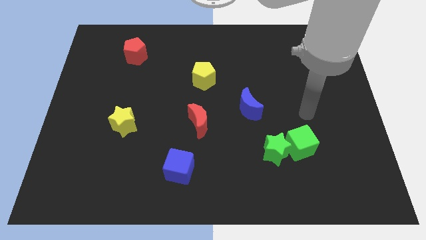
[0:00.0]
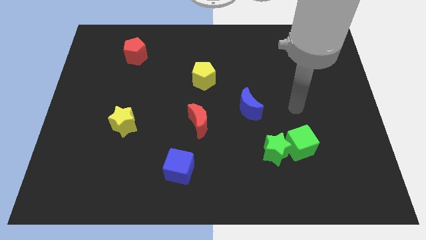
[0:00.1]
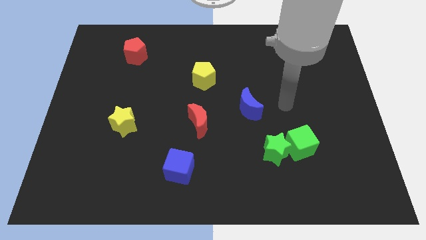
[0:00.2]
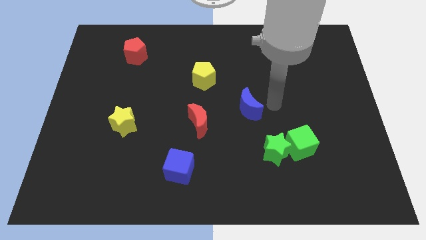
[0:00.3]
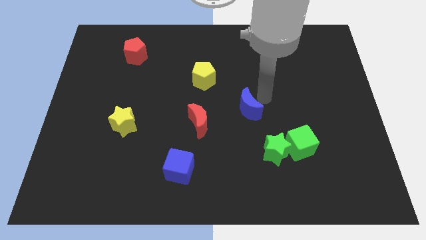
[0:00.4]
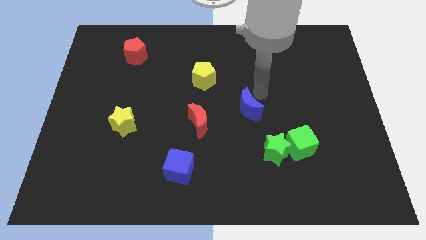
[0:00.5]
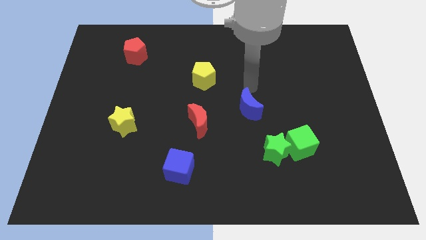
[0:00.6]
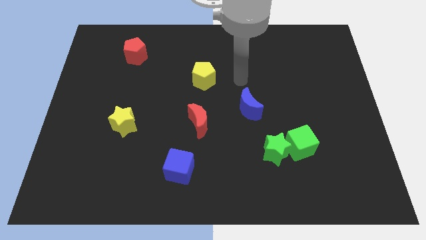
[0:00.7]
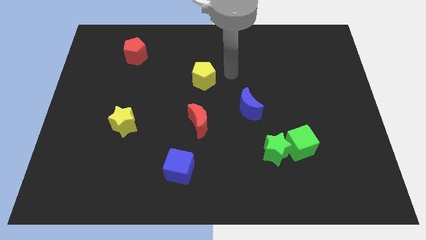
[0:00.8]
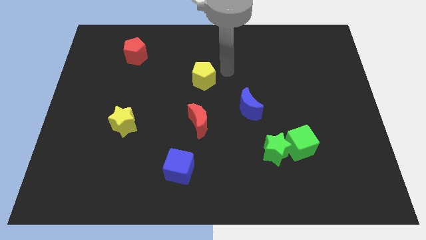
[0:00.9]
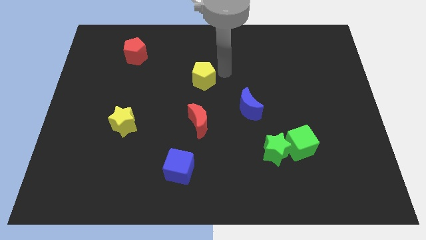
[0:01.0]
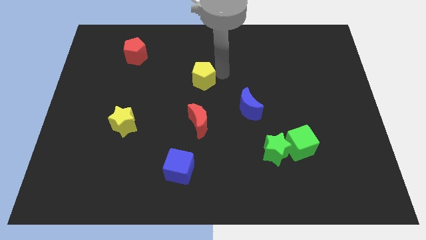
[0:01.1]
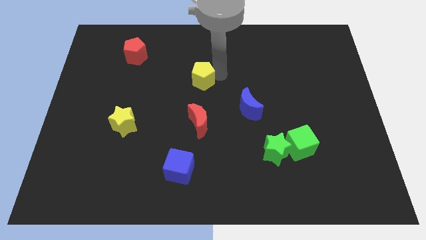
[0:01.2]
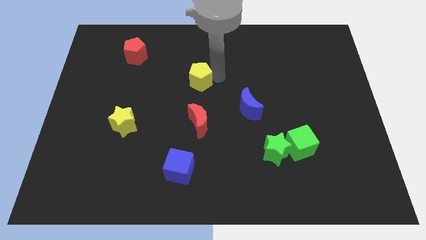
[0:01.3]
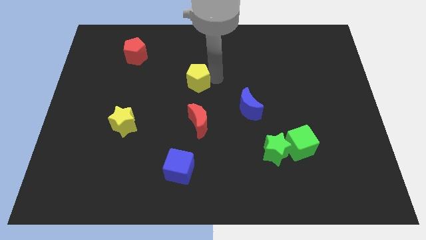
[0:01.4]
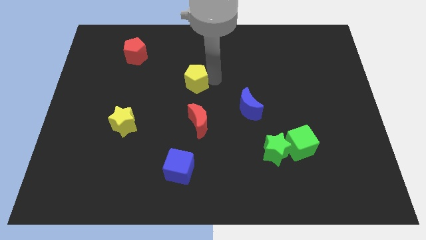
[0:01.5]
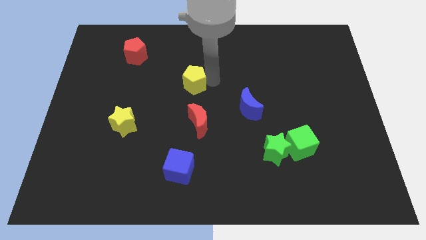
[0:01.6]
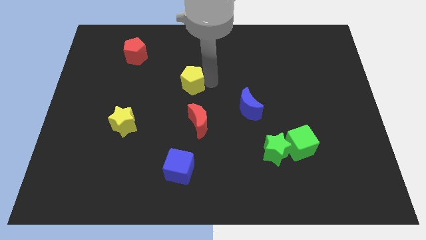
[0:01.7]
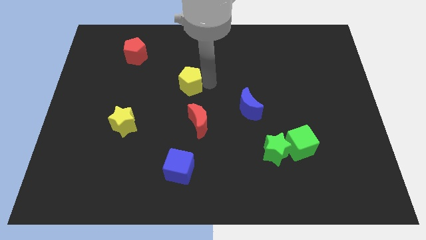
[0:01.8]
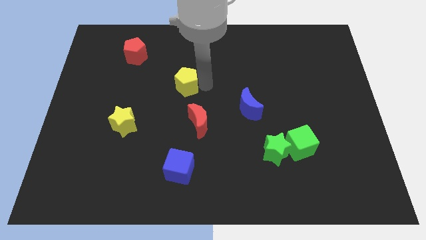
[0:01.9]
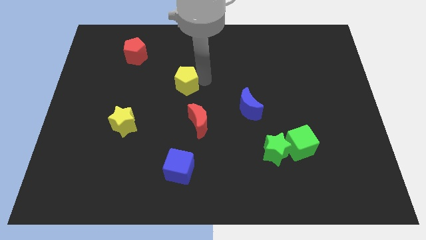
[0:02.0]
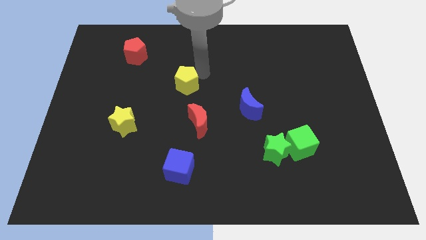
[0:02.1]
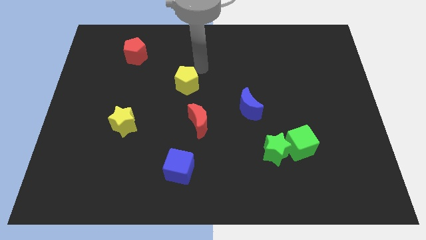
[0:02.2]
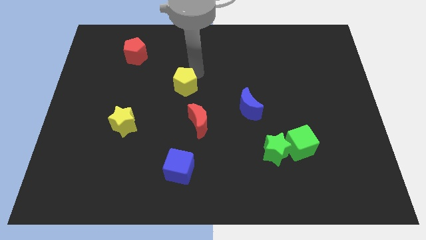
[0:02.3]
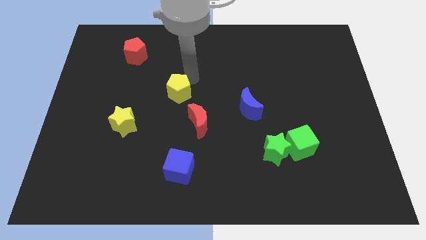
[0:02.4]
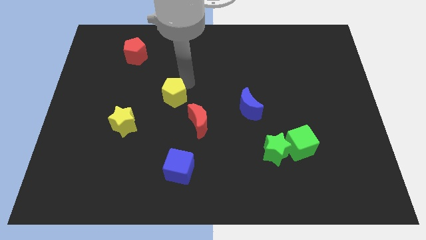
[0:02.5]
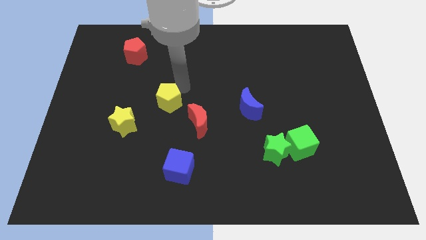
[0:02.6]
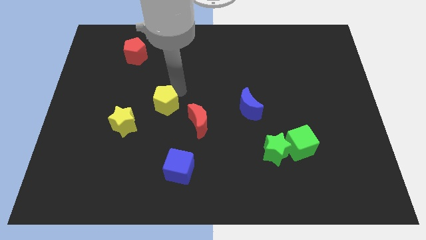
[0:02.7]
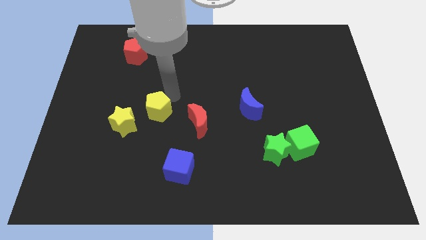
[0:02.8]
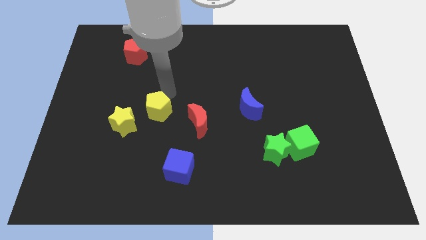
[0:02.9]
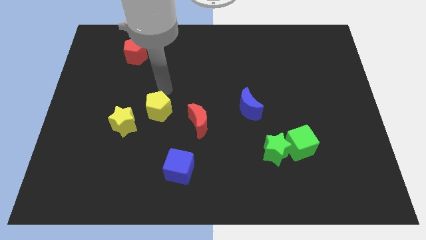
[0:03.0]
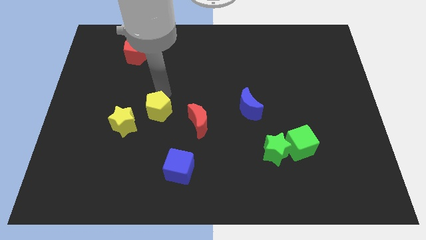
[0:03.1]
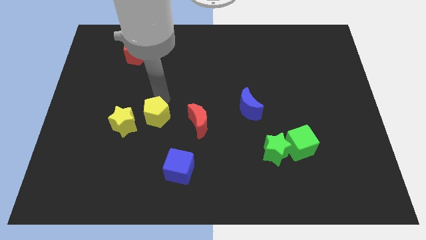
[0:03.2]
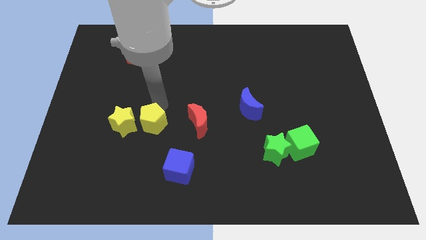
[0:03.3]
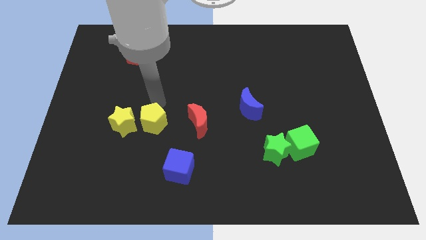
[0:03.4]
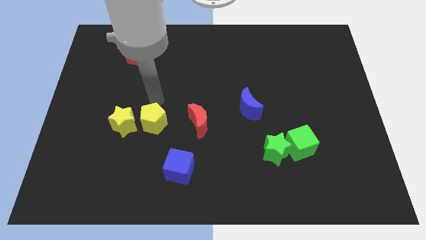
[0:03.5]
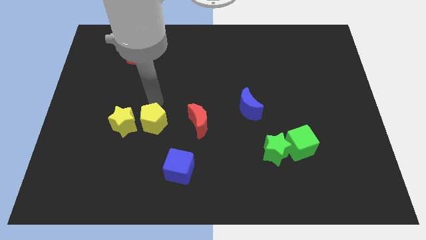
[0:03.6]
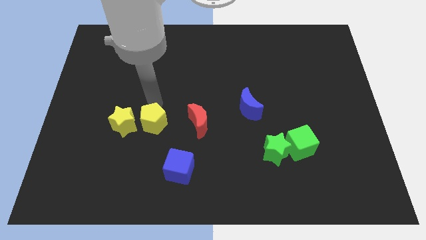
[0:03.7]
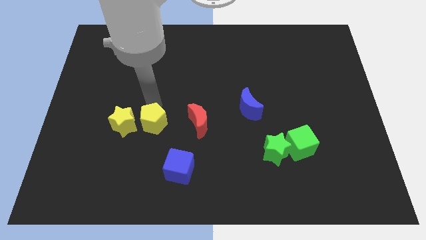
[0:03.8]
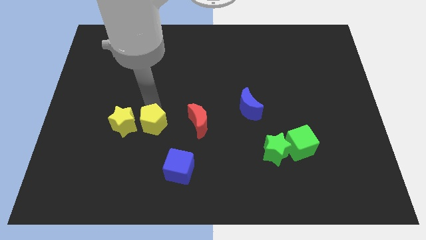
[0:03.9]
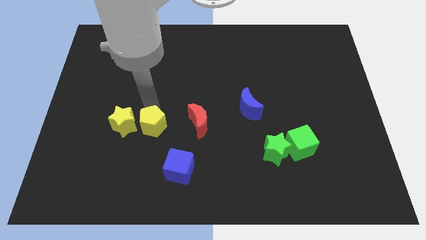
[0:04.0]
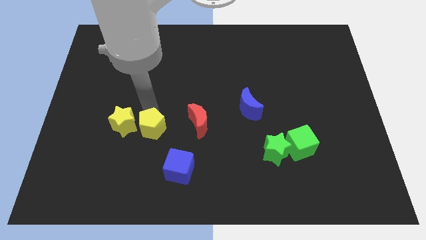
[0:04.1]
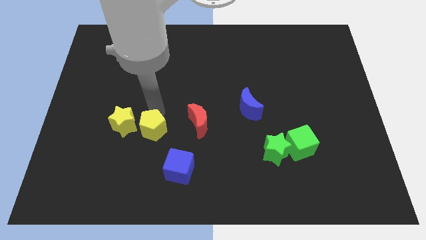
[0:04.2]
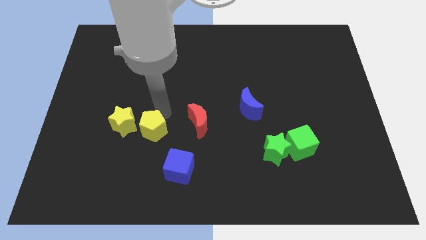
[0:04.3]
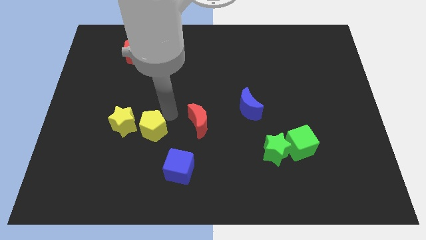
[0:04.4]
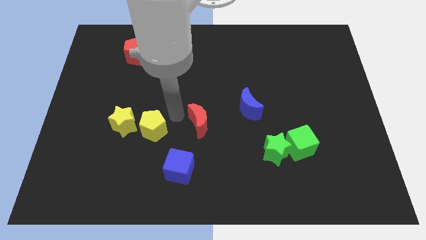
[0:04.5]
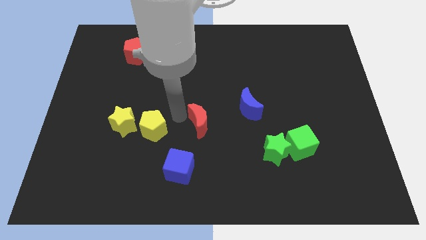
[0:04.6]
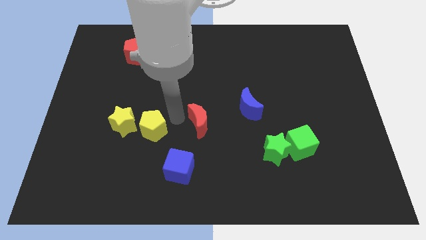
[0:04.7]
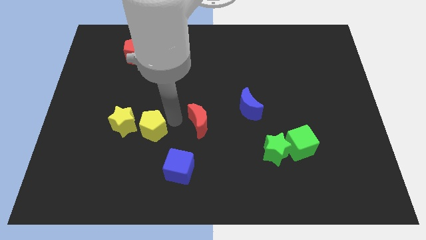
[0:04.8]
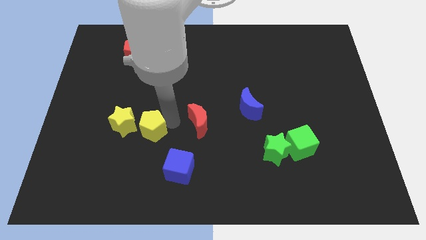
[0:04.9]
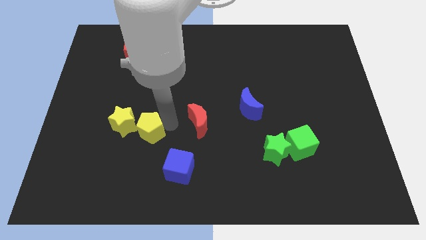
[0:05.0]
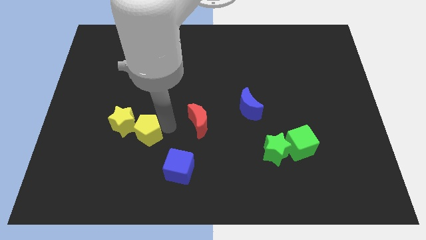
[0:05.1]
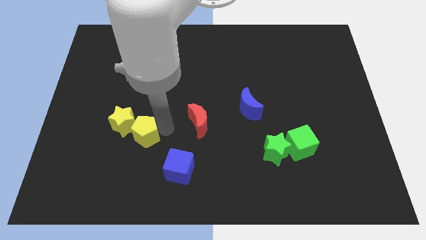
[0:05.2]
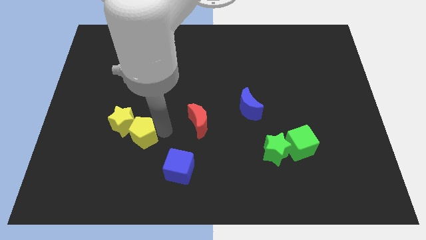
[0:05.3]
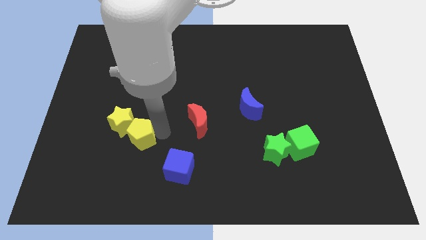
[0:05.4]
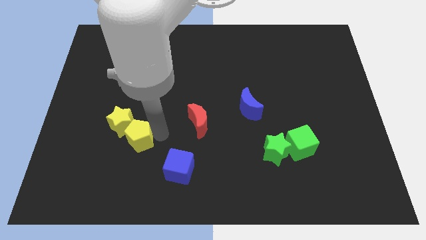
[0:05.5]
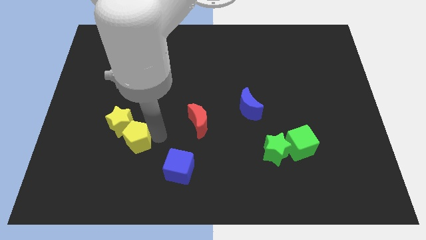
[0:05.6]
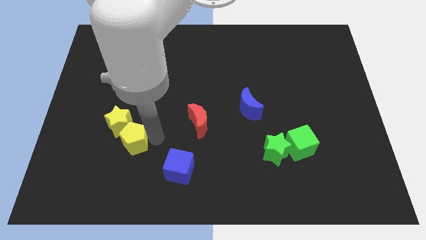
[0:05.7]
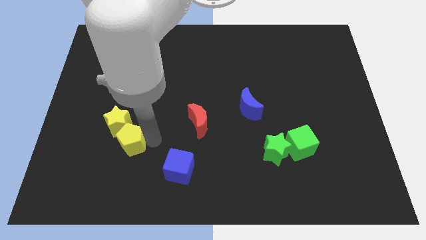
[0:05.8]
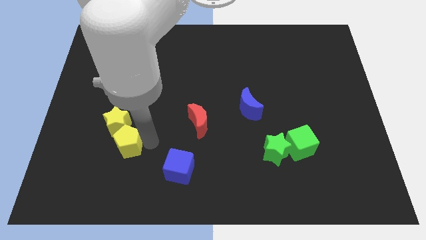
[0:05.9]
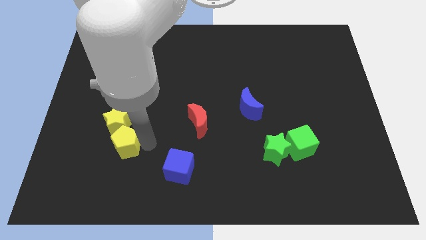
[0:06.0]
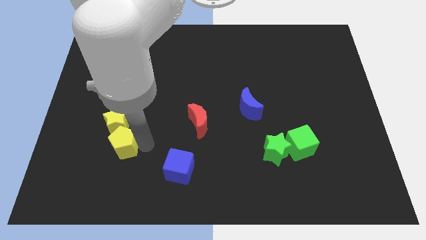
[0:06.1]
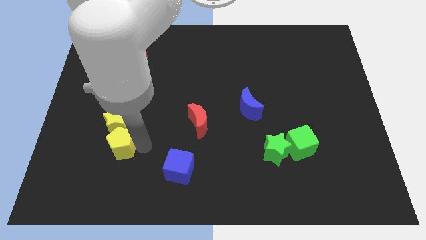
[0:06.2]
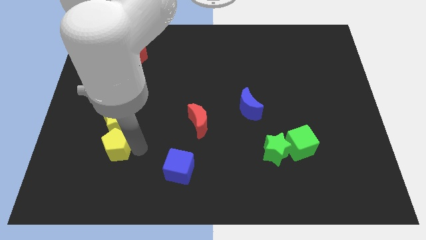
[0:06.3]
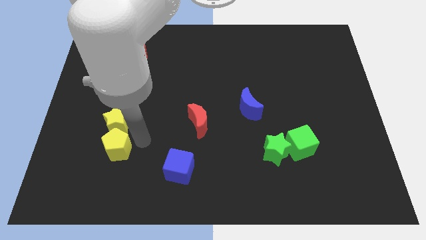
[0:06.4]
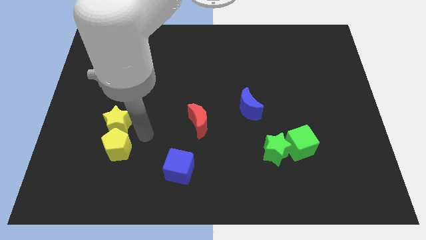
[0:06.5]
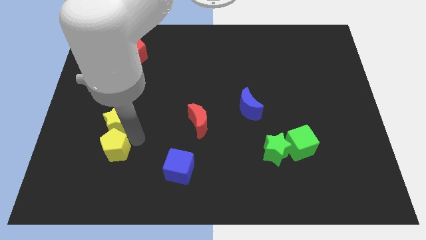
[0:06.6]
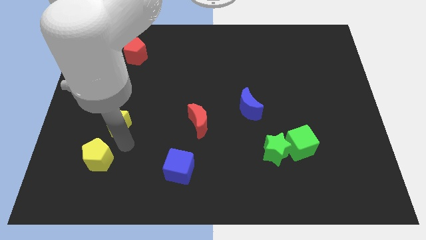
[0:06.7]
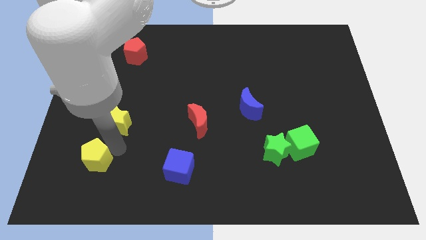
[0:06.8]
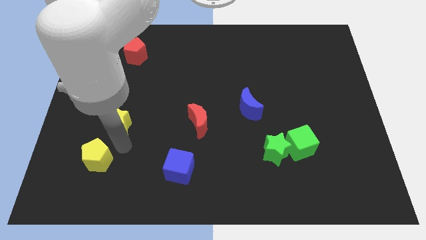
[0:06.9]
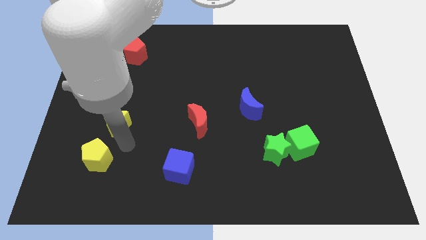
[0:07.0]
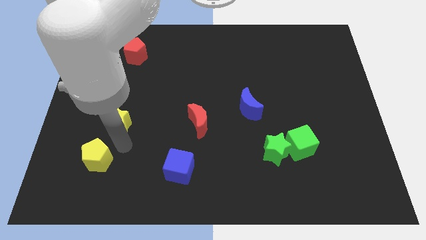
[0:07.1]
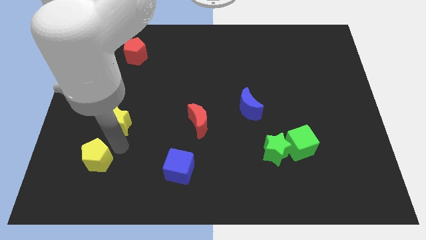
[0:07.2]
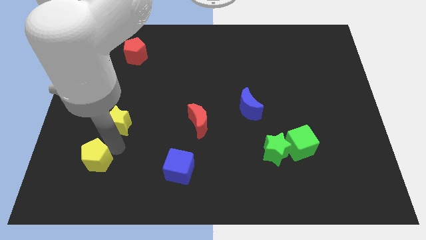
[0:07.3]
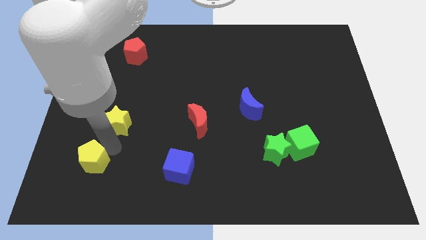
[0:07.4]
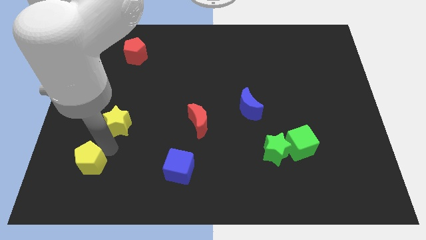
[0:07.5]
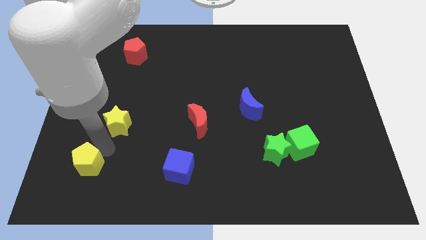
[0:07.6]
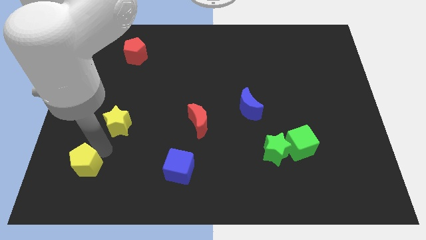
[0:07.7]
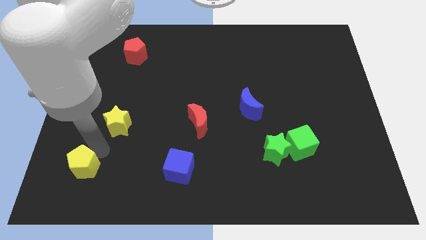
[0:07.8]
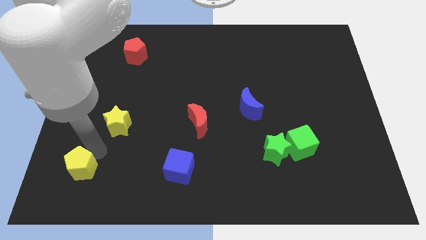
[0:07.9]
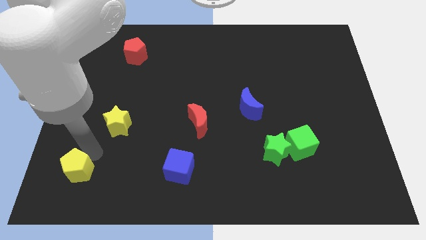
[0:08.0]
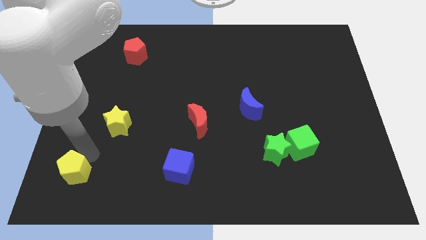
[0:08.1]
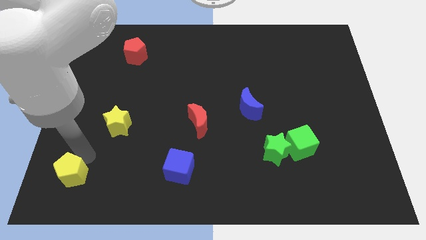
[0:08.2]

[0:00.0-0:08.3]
push the yellow pentagon to the bottom left of the board
